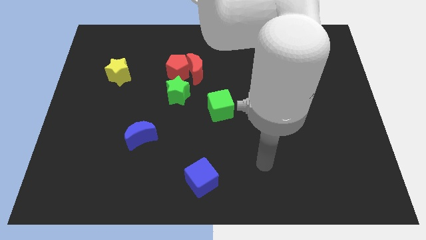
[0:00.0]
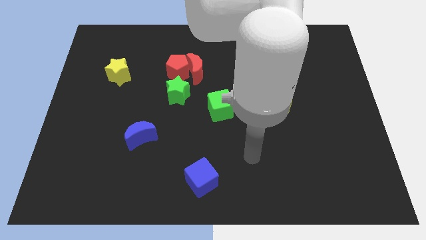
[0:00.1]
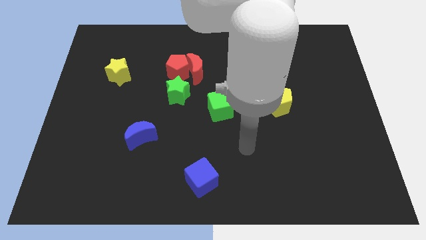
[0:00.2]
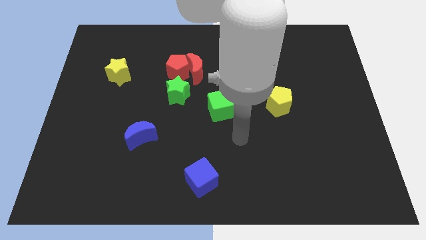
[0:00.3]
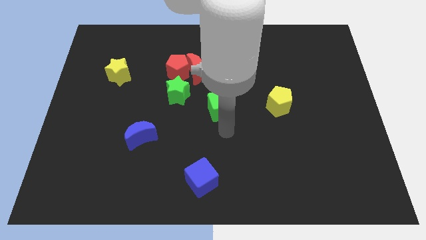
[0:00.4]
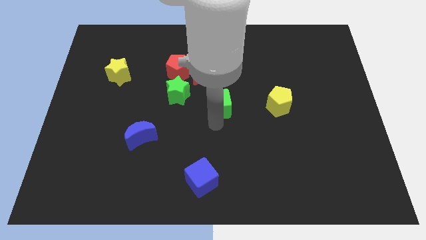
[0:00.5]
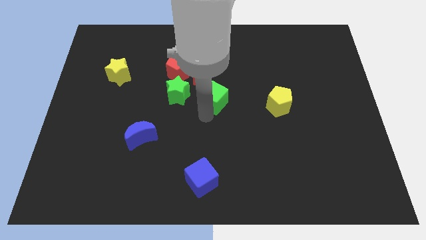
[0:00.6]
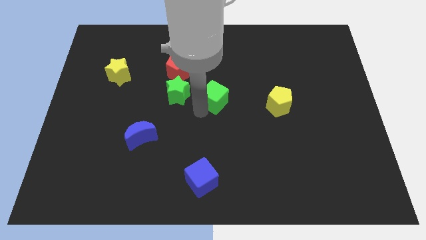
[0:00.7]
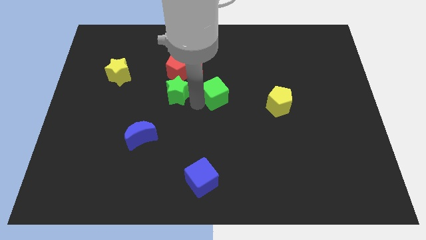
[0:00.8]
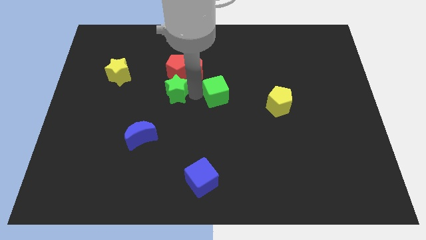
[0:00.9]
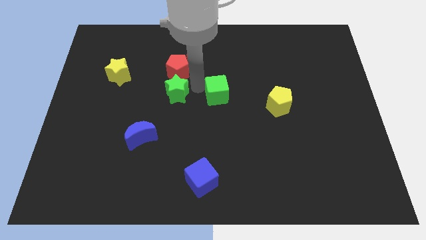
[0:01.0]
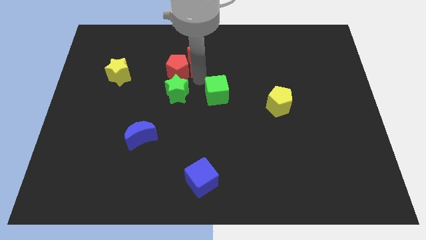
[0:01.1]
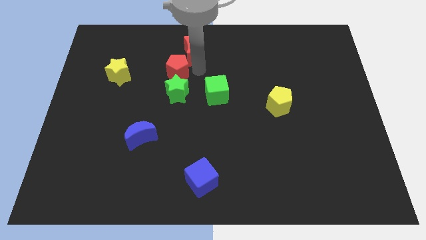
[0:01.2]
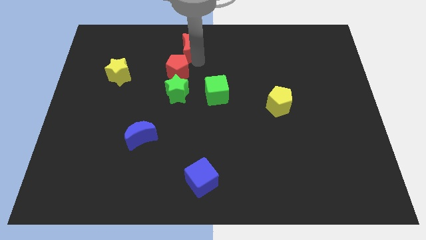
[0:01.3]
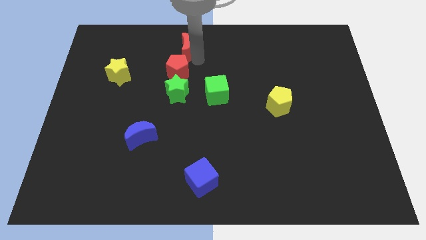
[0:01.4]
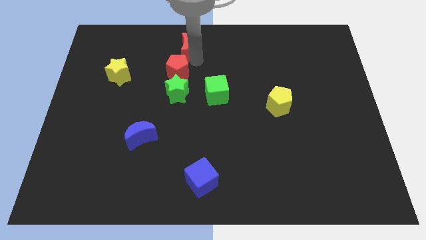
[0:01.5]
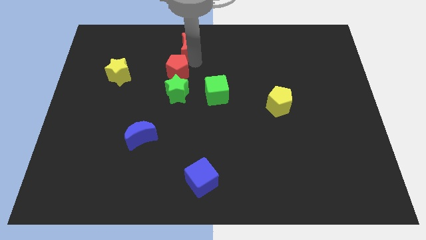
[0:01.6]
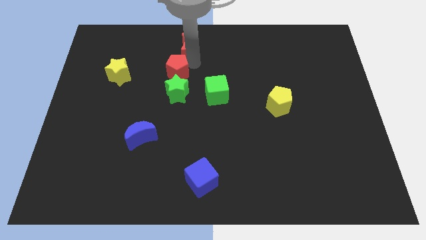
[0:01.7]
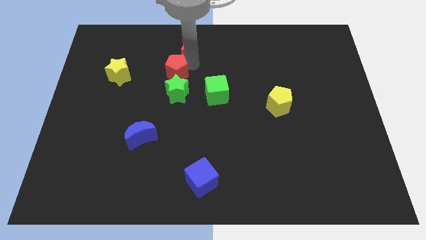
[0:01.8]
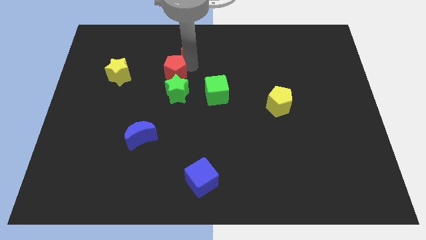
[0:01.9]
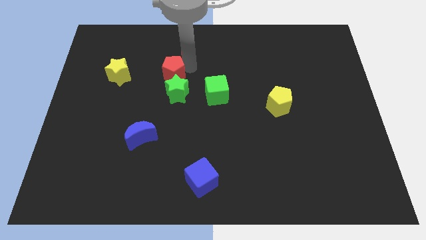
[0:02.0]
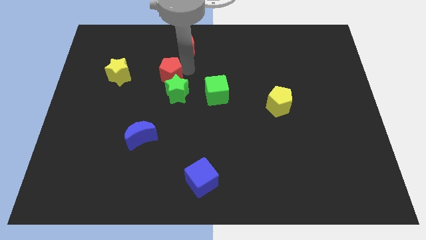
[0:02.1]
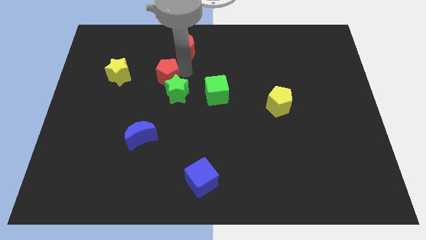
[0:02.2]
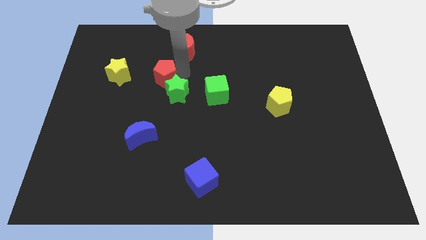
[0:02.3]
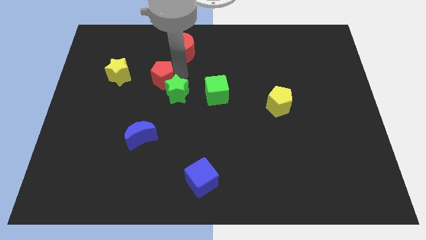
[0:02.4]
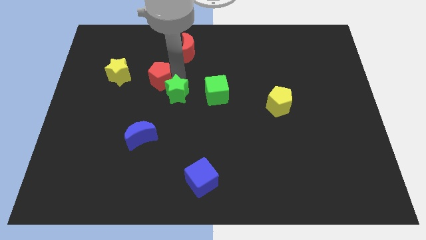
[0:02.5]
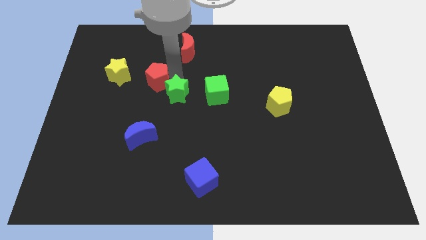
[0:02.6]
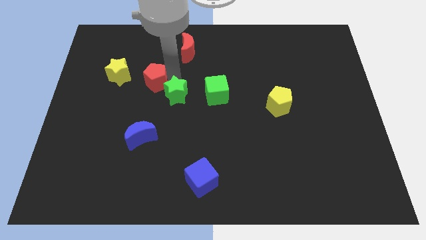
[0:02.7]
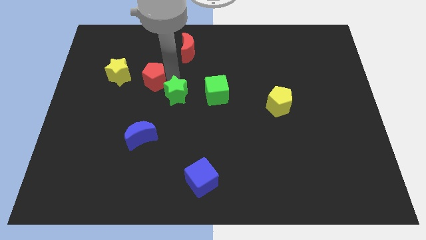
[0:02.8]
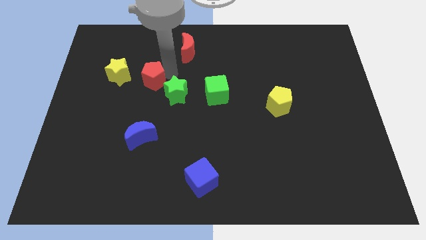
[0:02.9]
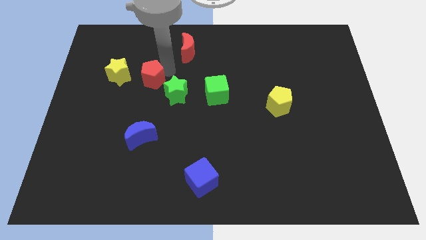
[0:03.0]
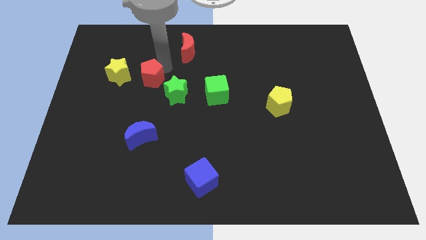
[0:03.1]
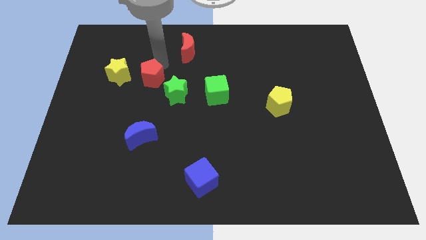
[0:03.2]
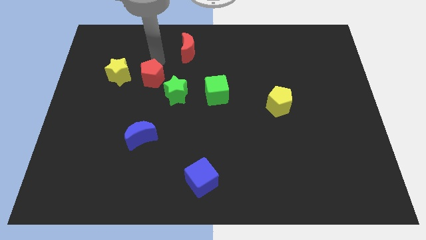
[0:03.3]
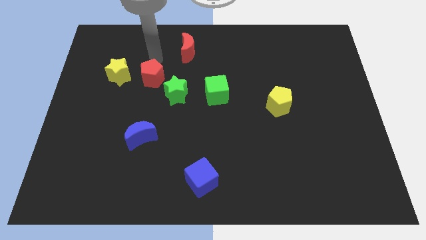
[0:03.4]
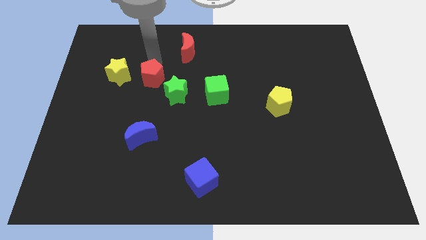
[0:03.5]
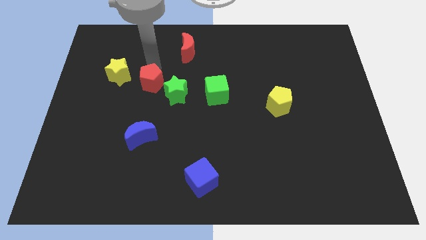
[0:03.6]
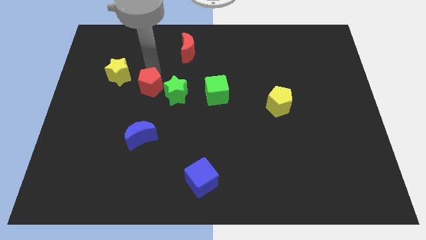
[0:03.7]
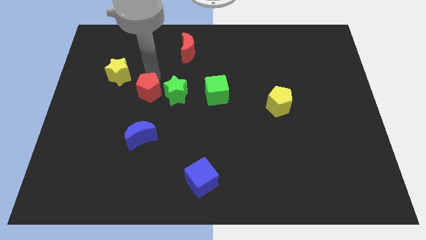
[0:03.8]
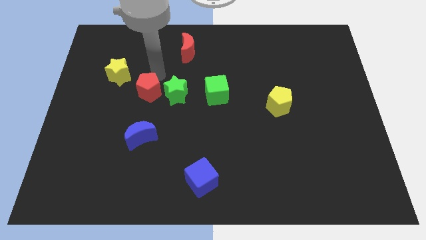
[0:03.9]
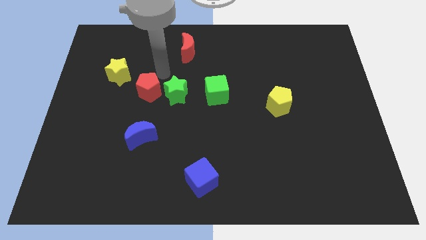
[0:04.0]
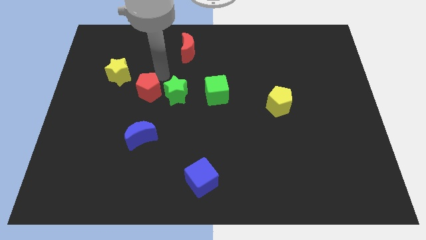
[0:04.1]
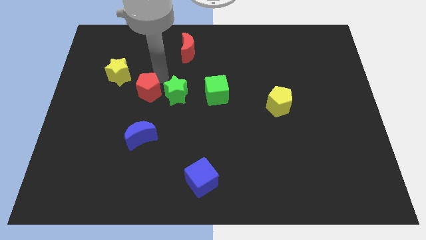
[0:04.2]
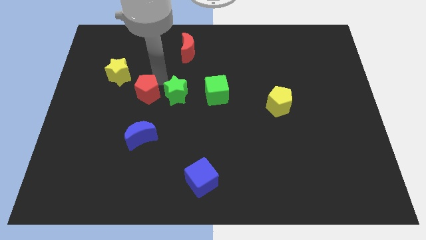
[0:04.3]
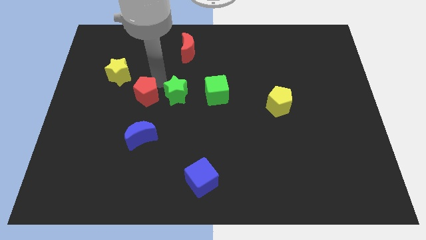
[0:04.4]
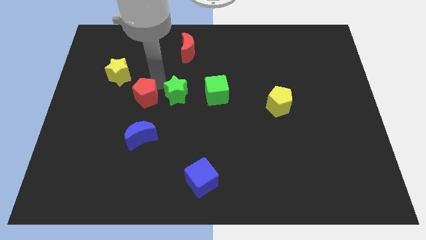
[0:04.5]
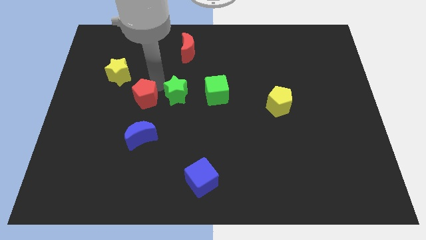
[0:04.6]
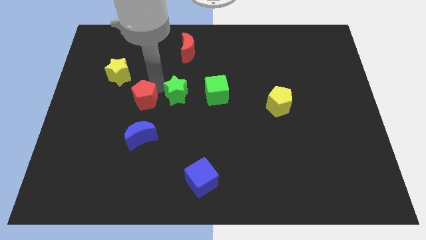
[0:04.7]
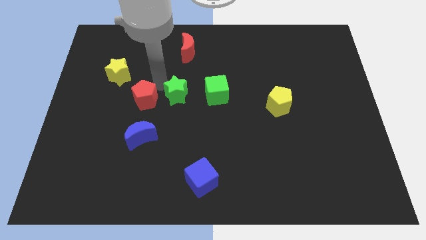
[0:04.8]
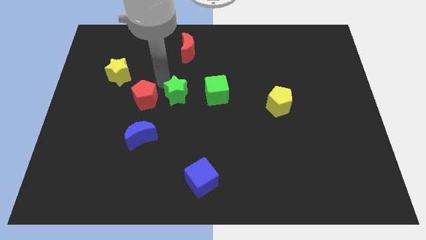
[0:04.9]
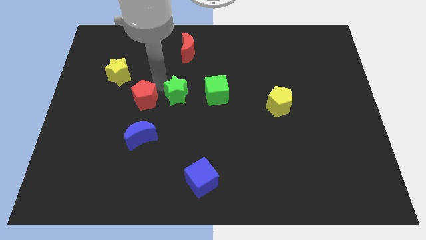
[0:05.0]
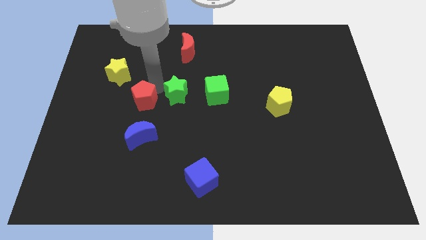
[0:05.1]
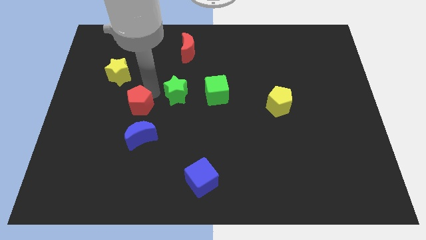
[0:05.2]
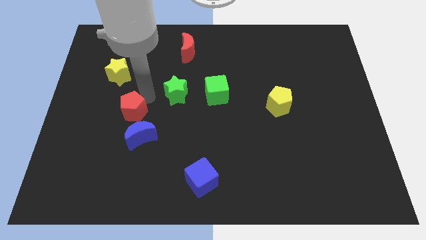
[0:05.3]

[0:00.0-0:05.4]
slide the red pentagon to the top left of the blue moon

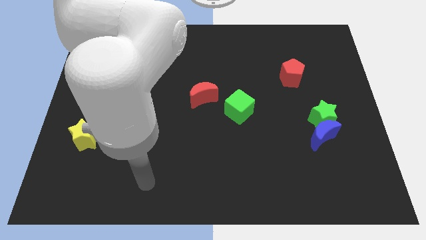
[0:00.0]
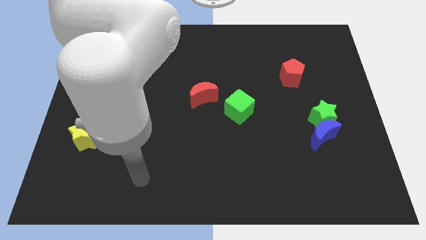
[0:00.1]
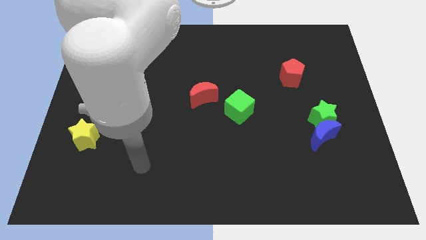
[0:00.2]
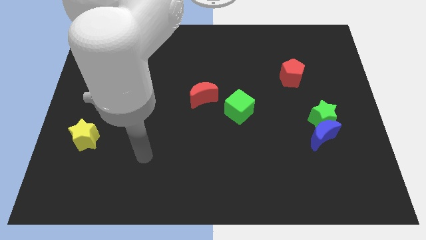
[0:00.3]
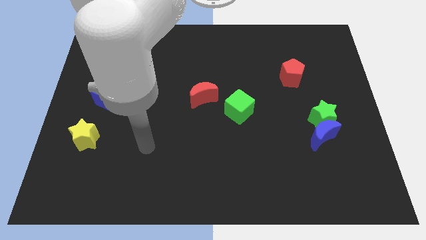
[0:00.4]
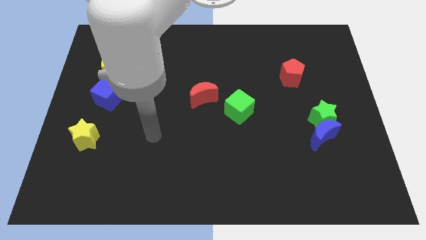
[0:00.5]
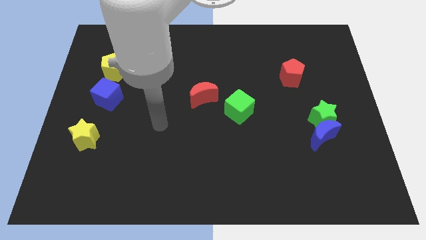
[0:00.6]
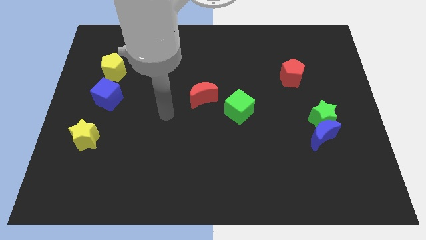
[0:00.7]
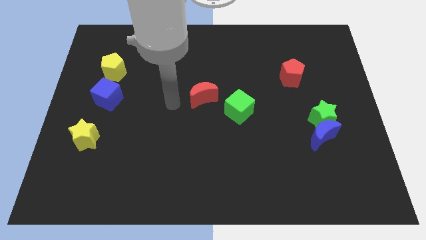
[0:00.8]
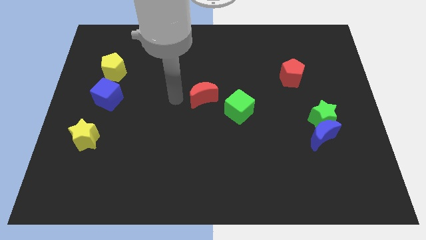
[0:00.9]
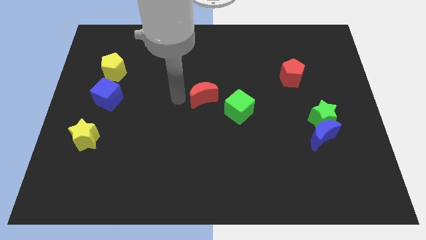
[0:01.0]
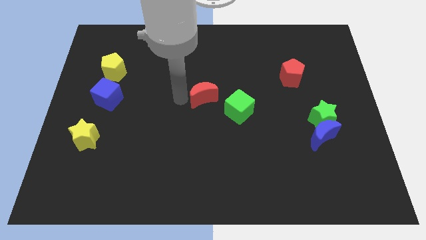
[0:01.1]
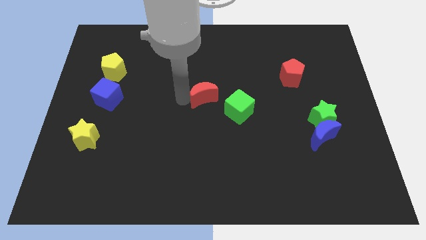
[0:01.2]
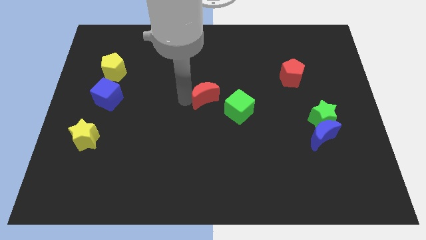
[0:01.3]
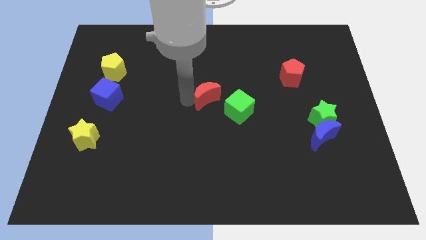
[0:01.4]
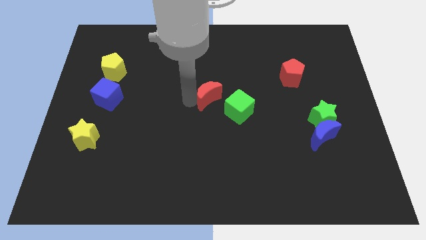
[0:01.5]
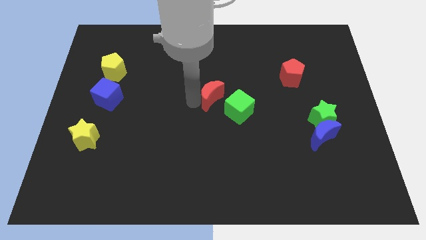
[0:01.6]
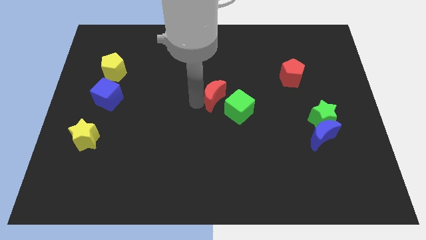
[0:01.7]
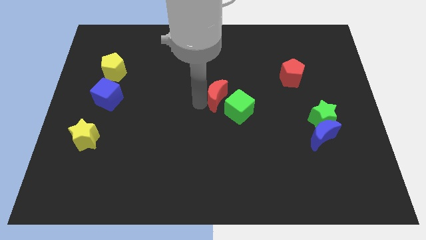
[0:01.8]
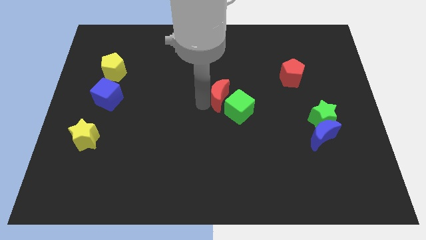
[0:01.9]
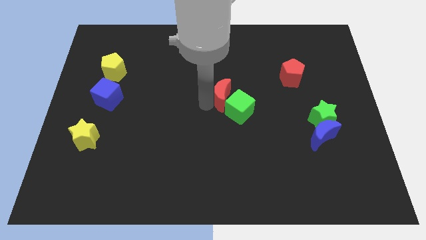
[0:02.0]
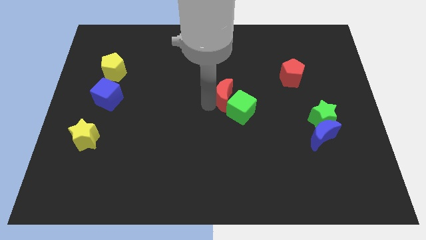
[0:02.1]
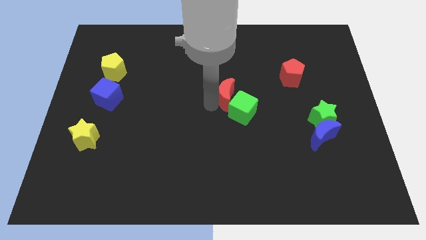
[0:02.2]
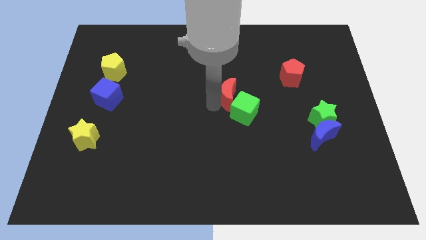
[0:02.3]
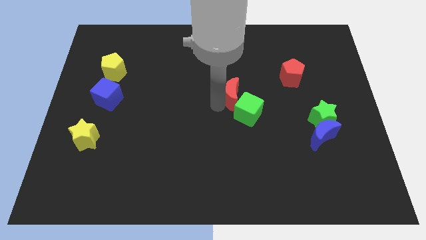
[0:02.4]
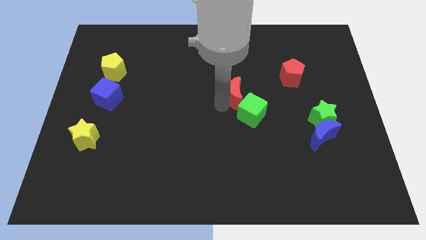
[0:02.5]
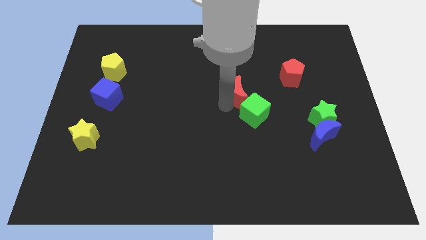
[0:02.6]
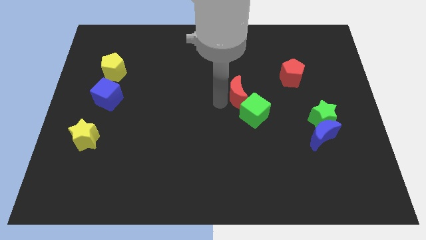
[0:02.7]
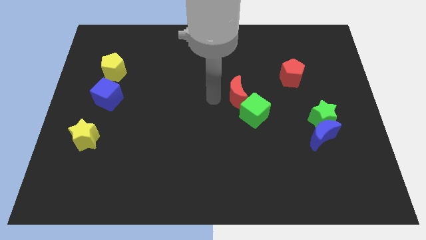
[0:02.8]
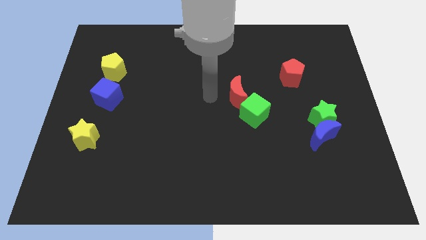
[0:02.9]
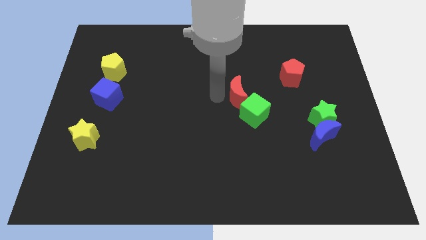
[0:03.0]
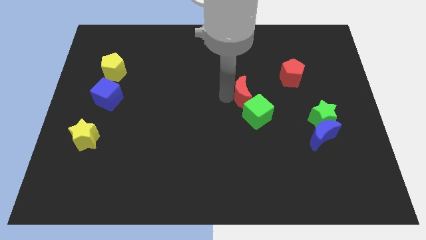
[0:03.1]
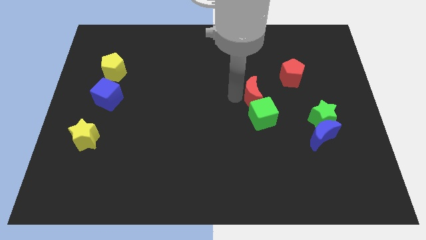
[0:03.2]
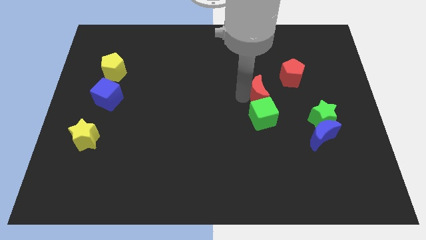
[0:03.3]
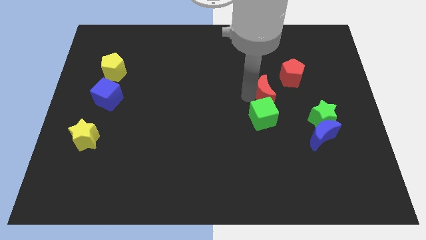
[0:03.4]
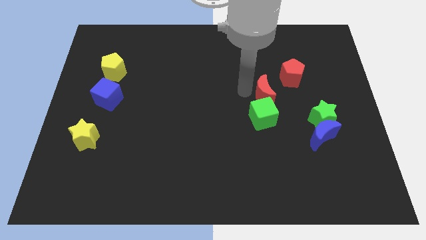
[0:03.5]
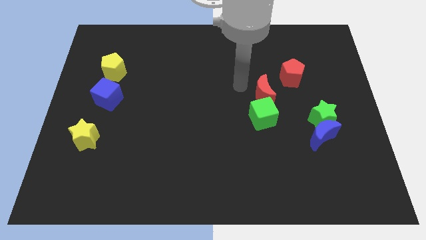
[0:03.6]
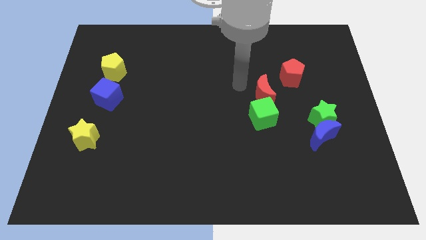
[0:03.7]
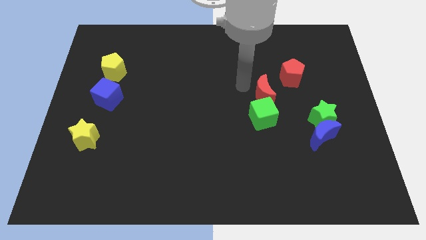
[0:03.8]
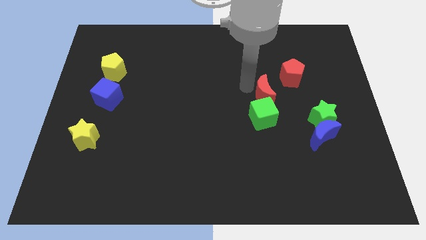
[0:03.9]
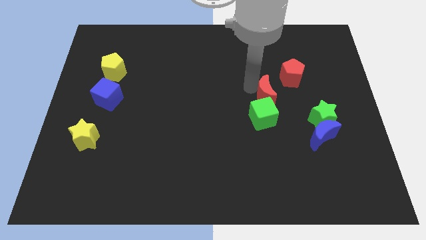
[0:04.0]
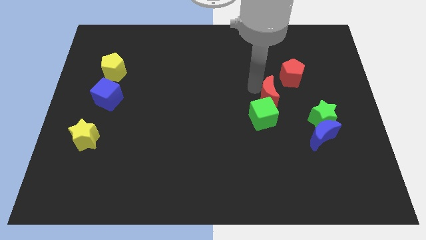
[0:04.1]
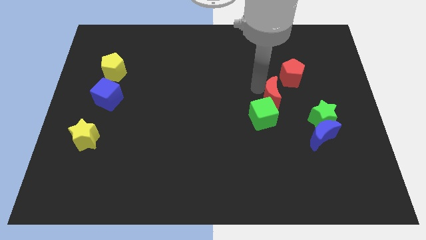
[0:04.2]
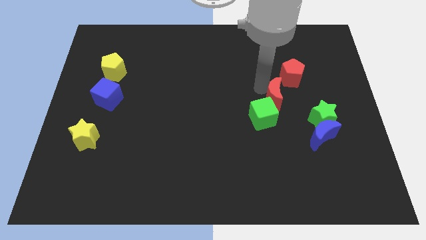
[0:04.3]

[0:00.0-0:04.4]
slide the red moon below the red pentagon
